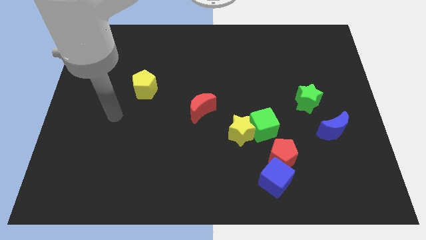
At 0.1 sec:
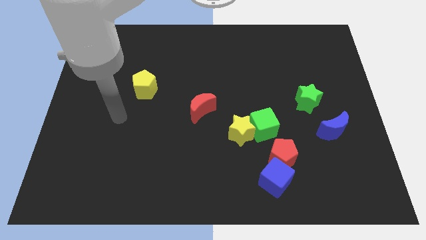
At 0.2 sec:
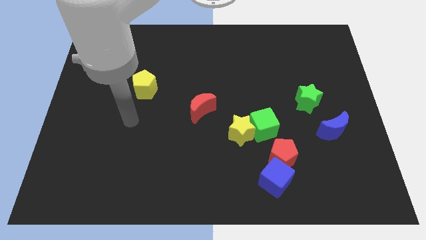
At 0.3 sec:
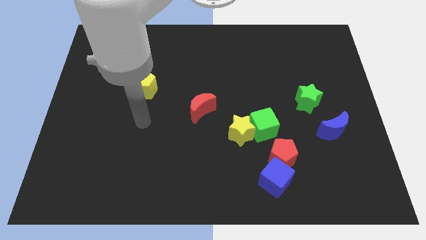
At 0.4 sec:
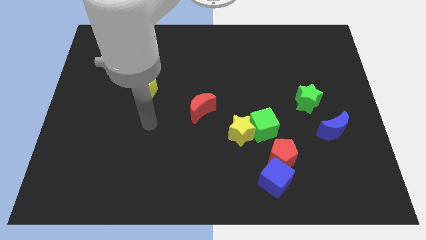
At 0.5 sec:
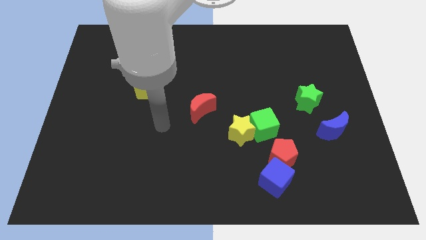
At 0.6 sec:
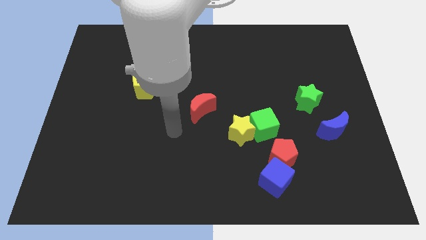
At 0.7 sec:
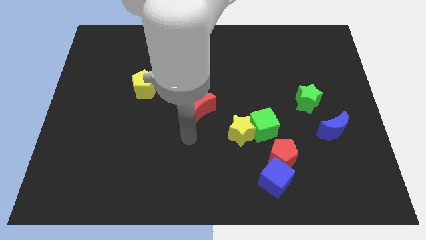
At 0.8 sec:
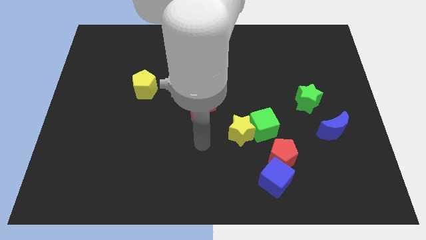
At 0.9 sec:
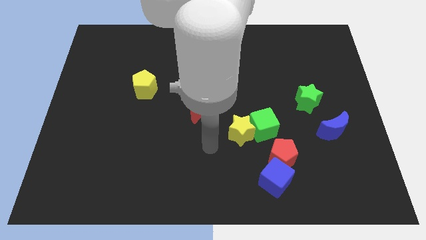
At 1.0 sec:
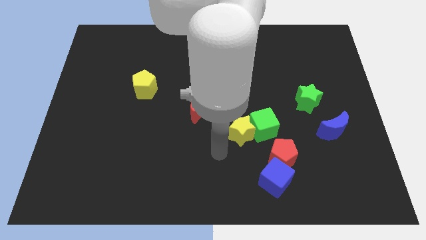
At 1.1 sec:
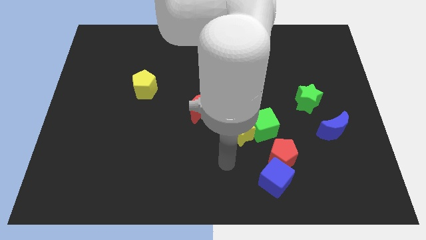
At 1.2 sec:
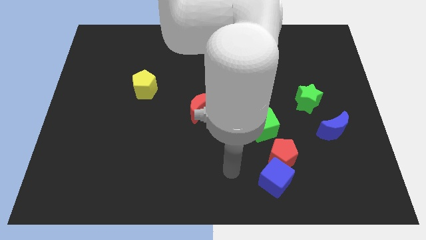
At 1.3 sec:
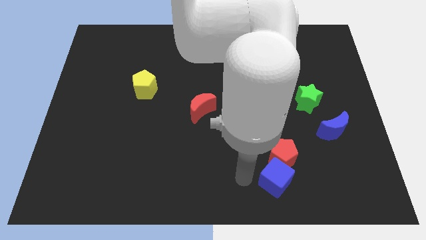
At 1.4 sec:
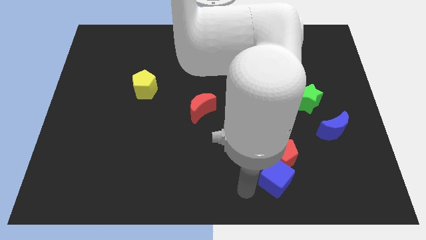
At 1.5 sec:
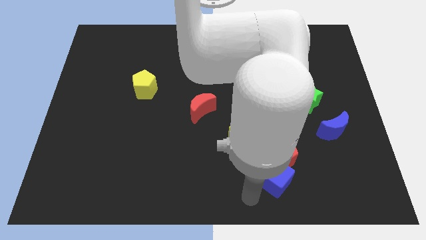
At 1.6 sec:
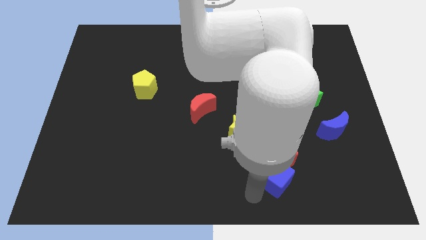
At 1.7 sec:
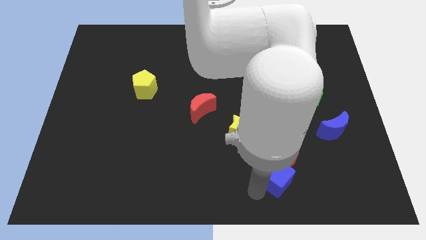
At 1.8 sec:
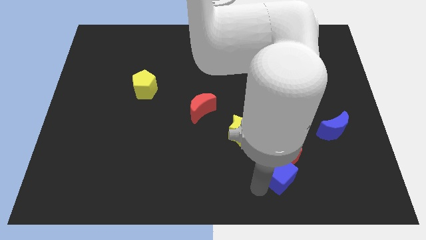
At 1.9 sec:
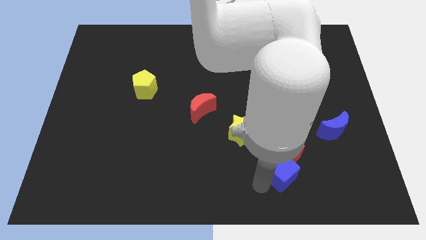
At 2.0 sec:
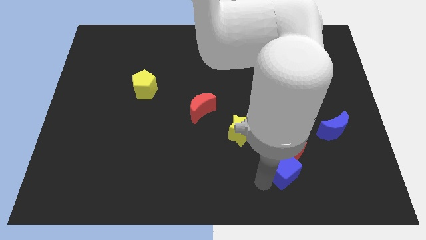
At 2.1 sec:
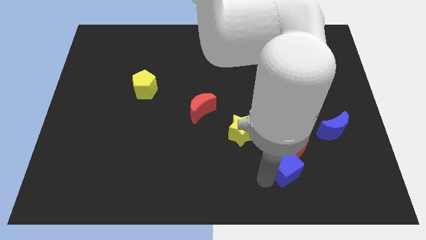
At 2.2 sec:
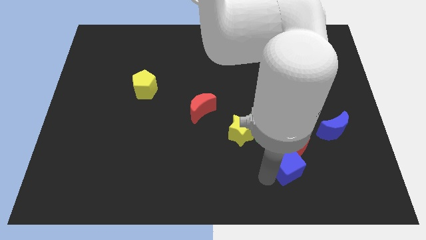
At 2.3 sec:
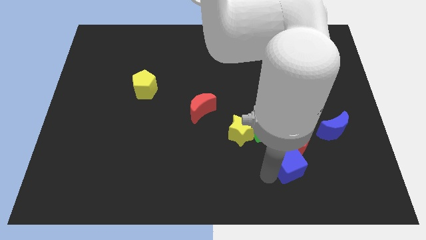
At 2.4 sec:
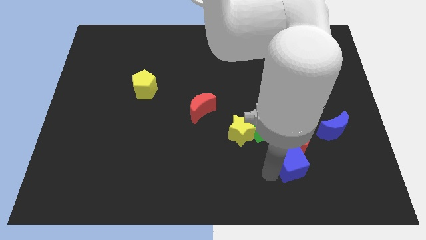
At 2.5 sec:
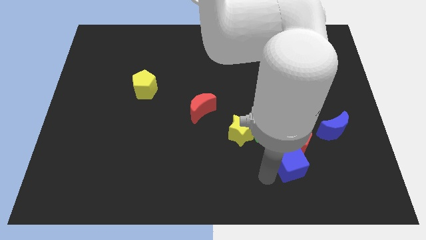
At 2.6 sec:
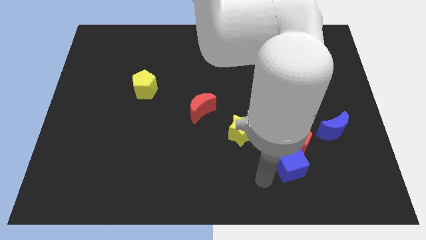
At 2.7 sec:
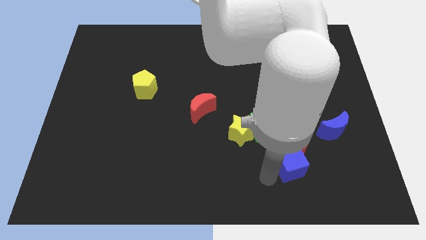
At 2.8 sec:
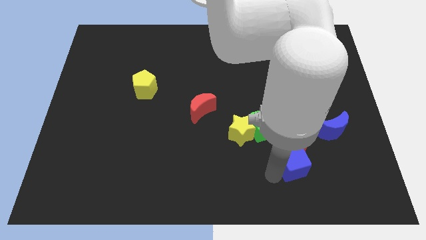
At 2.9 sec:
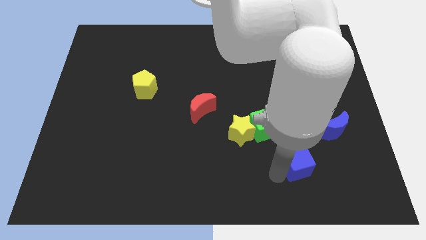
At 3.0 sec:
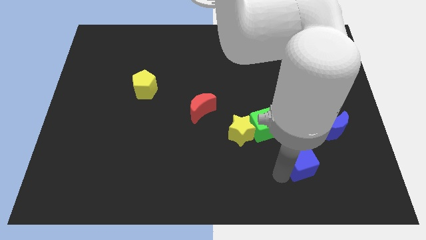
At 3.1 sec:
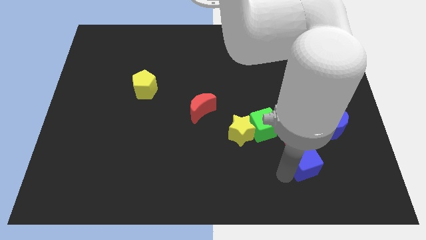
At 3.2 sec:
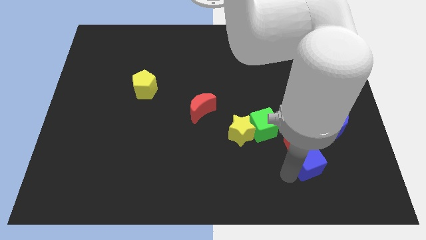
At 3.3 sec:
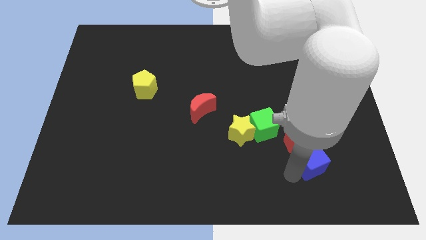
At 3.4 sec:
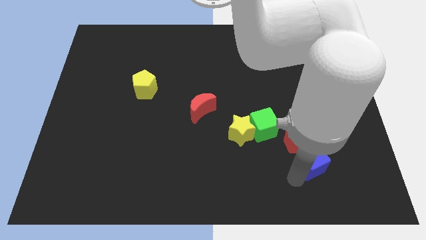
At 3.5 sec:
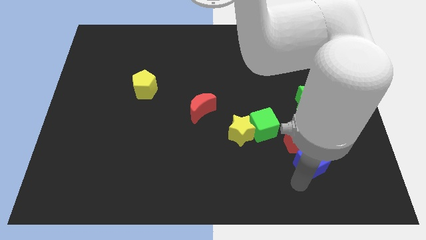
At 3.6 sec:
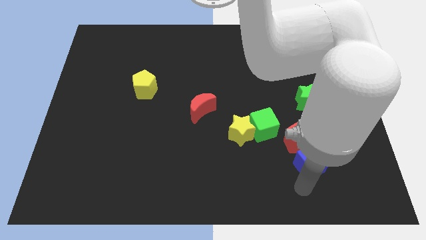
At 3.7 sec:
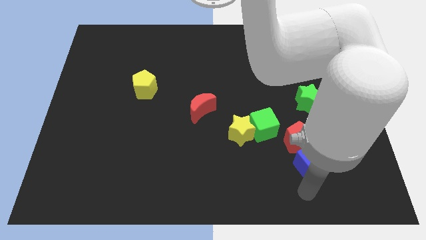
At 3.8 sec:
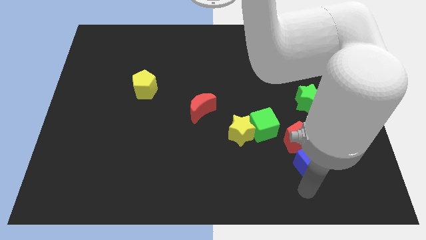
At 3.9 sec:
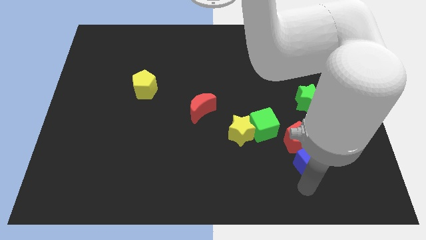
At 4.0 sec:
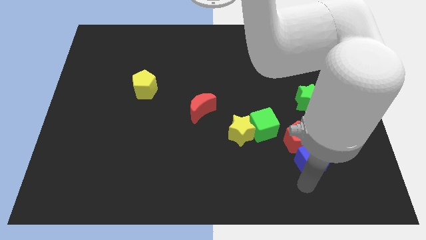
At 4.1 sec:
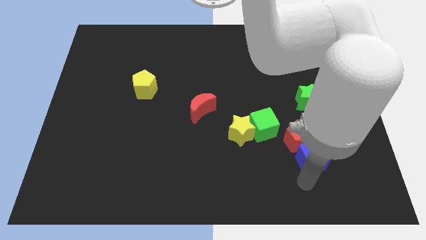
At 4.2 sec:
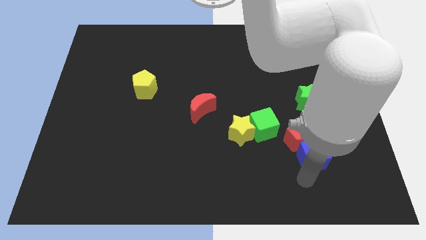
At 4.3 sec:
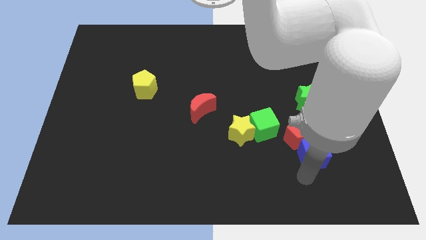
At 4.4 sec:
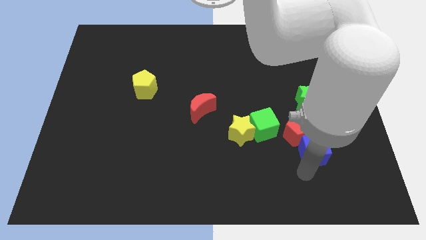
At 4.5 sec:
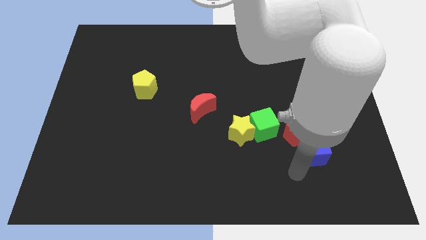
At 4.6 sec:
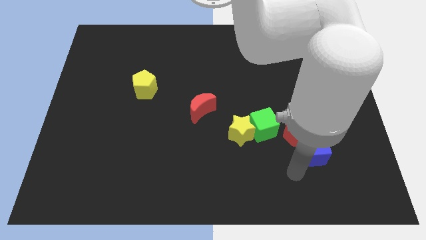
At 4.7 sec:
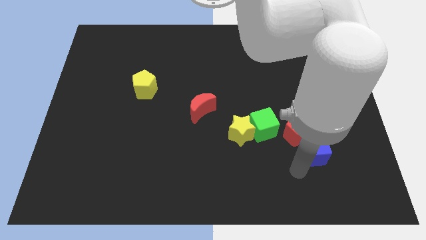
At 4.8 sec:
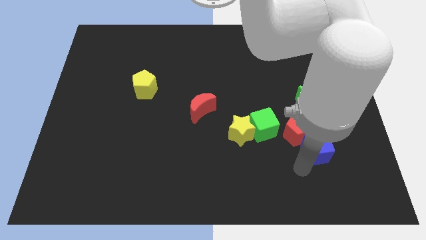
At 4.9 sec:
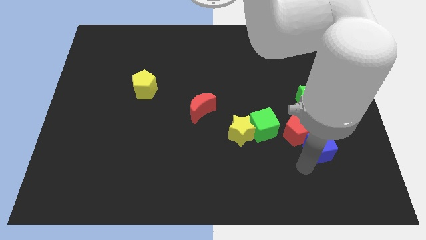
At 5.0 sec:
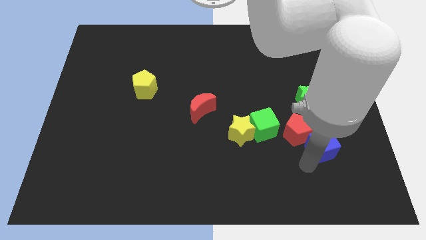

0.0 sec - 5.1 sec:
move the blue cube towards the blue moon

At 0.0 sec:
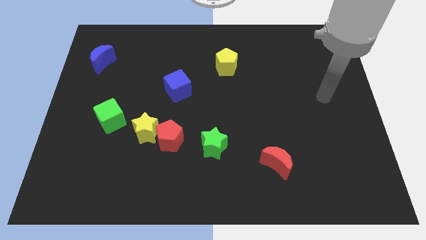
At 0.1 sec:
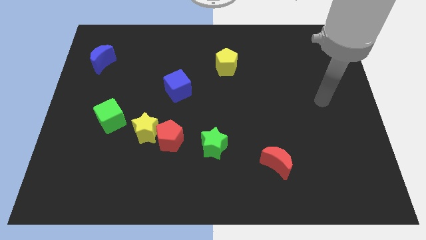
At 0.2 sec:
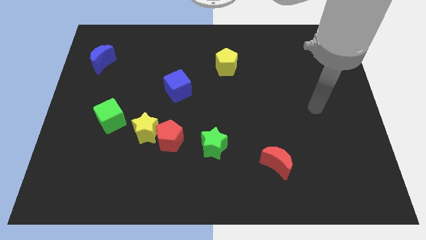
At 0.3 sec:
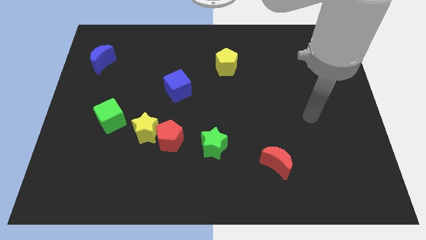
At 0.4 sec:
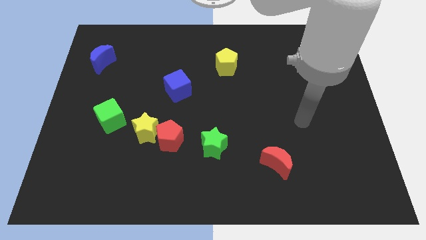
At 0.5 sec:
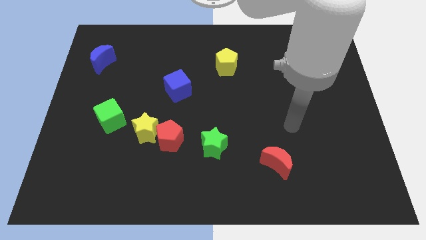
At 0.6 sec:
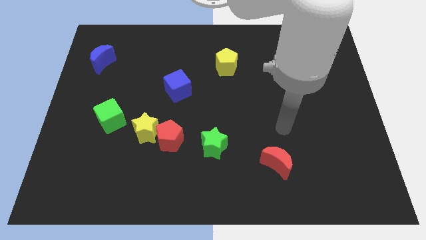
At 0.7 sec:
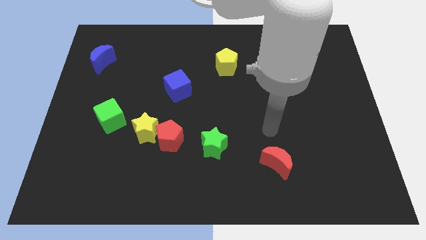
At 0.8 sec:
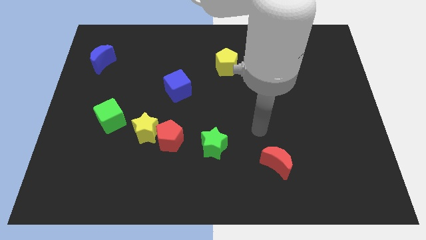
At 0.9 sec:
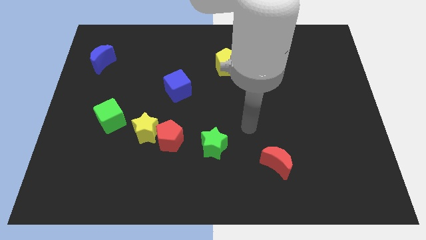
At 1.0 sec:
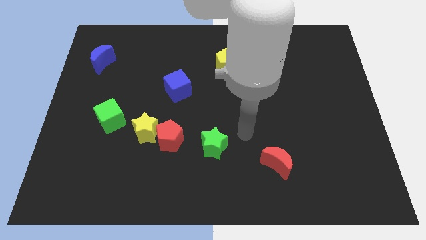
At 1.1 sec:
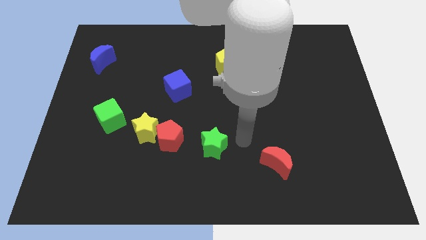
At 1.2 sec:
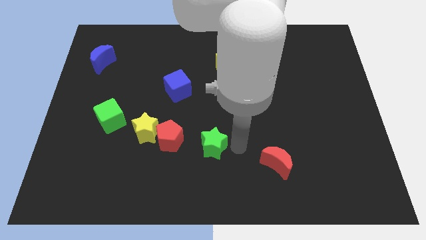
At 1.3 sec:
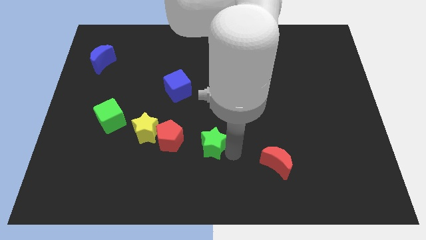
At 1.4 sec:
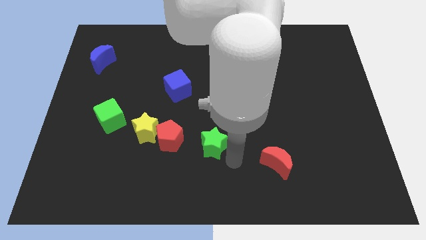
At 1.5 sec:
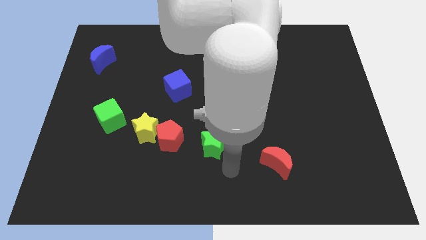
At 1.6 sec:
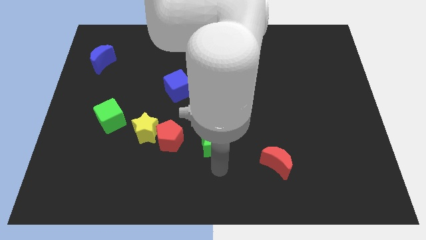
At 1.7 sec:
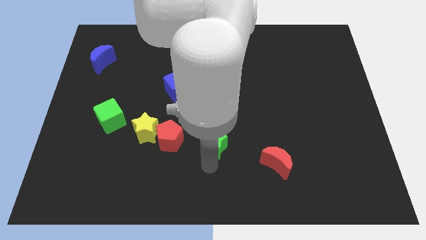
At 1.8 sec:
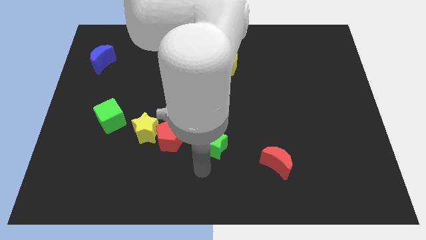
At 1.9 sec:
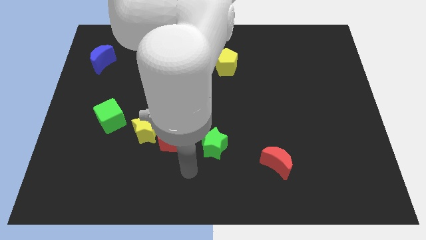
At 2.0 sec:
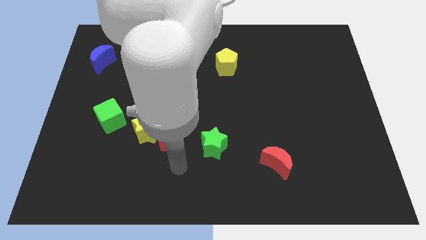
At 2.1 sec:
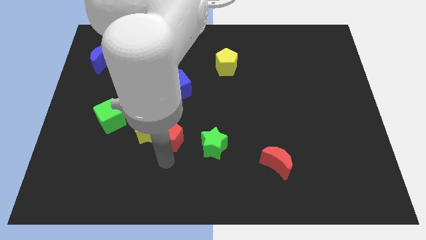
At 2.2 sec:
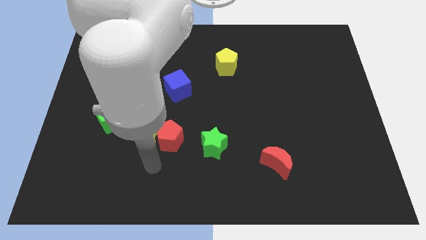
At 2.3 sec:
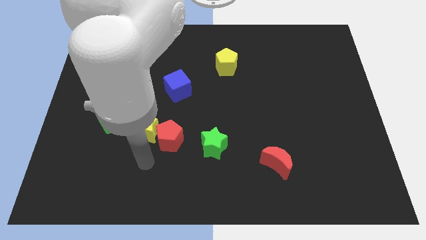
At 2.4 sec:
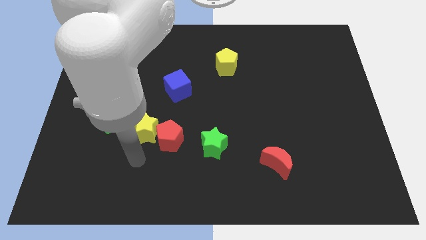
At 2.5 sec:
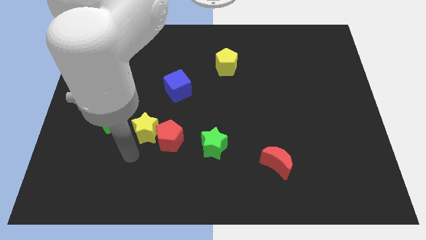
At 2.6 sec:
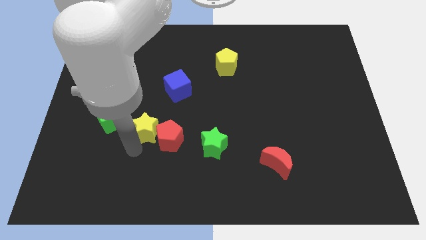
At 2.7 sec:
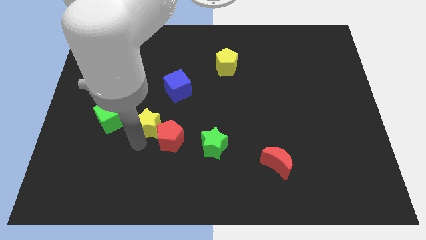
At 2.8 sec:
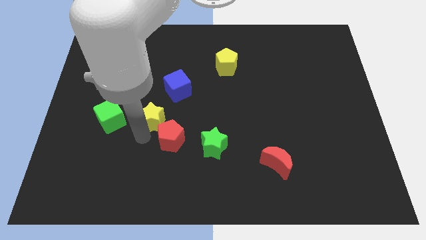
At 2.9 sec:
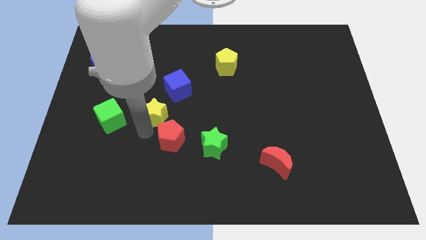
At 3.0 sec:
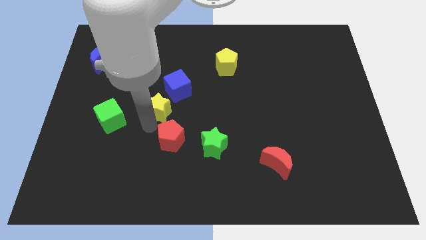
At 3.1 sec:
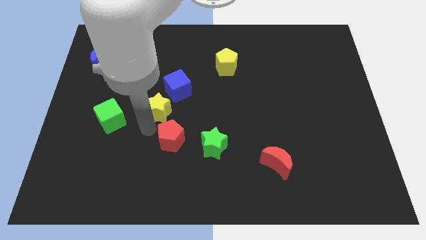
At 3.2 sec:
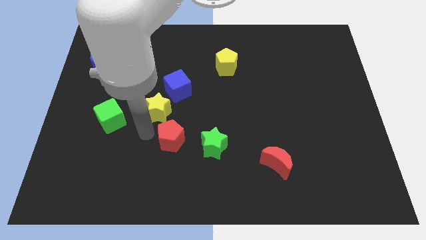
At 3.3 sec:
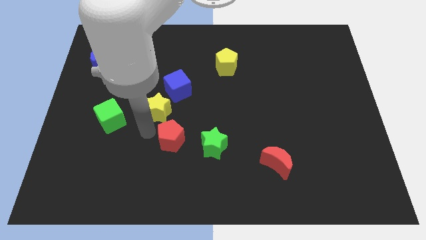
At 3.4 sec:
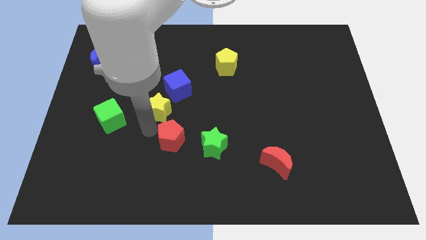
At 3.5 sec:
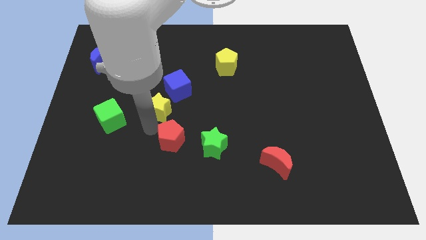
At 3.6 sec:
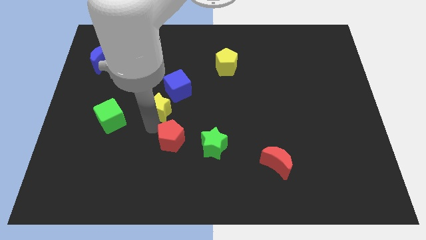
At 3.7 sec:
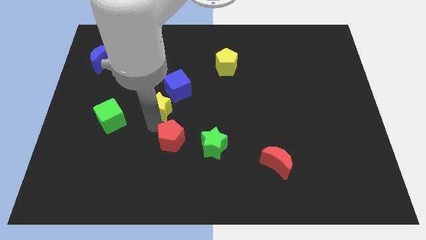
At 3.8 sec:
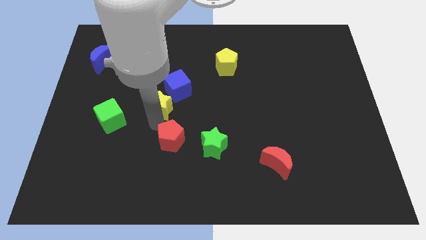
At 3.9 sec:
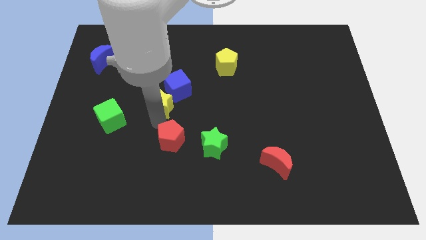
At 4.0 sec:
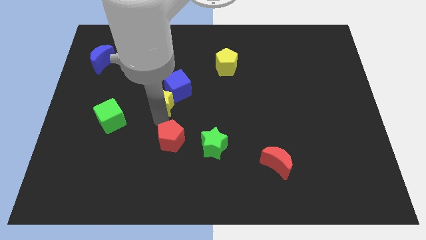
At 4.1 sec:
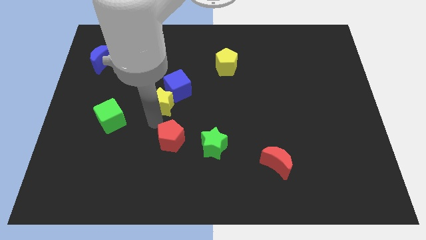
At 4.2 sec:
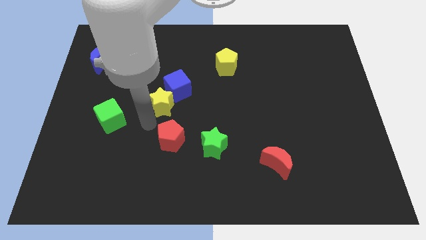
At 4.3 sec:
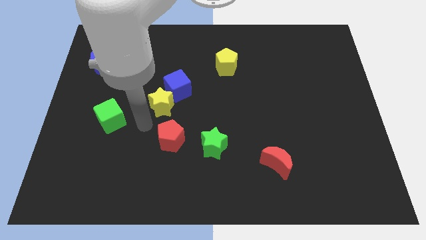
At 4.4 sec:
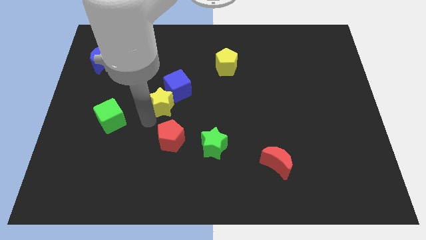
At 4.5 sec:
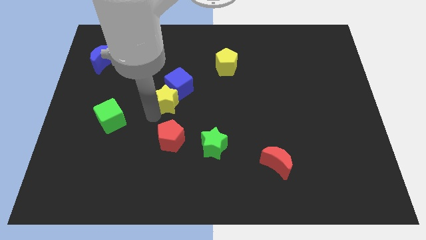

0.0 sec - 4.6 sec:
slide the yellow star to the blue cube
